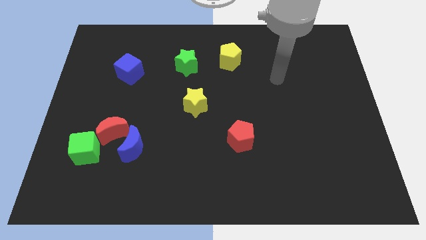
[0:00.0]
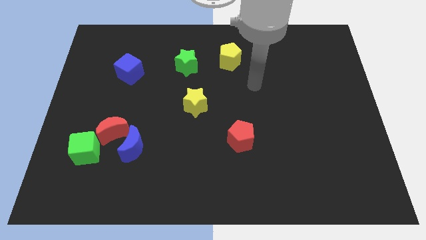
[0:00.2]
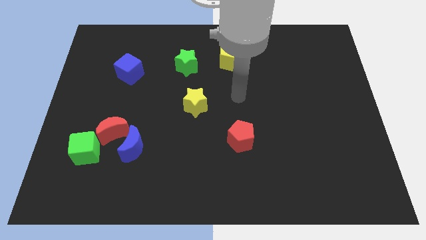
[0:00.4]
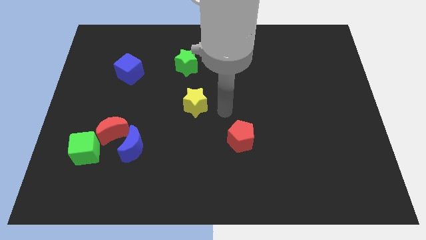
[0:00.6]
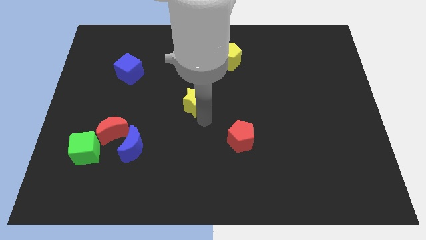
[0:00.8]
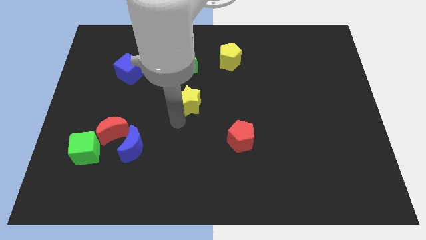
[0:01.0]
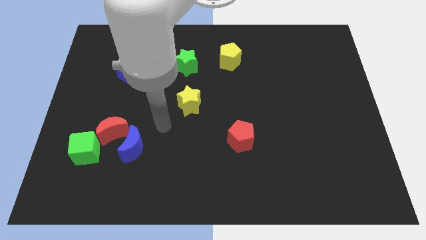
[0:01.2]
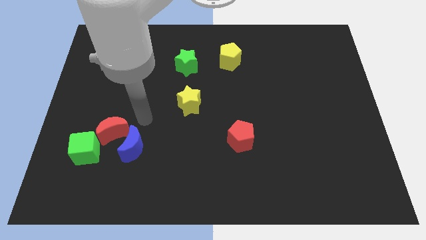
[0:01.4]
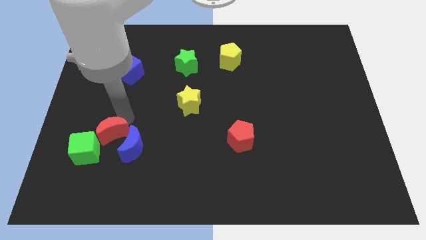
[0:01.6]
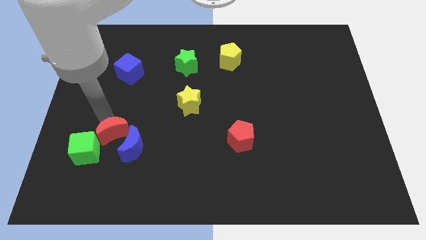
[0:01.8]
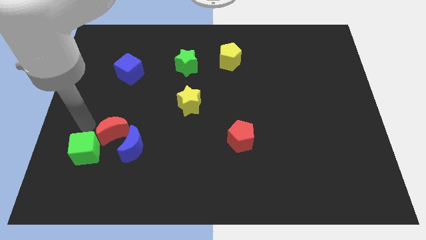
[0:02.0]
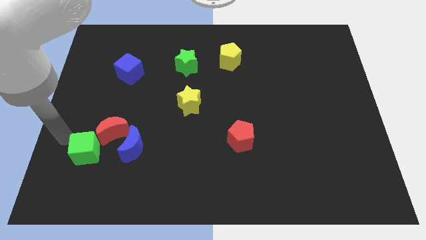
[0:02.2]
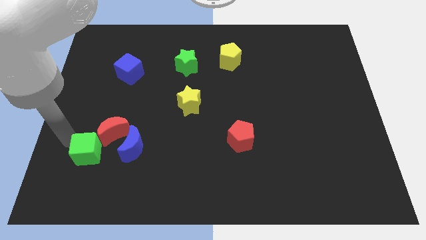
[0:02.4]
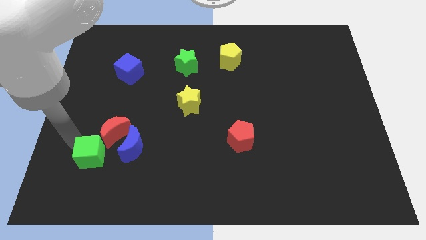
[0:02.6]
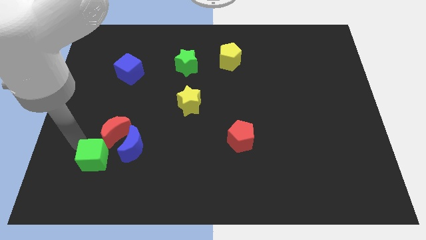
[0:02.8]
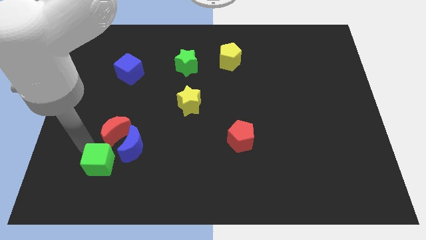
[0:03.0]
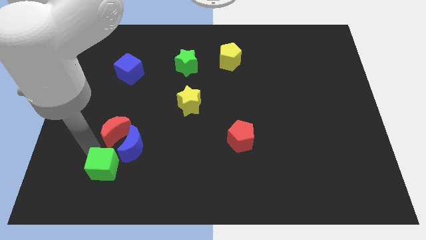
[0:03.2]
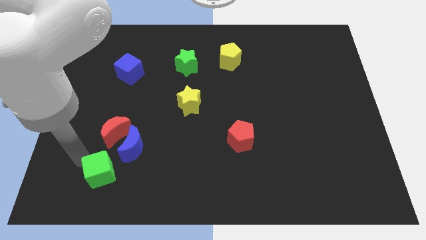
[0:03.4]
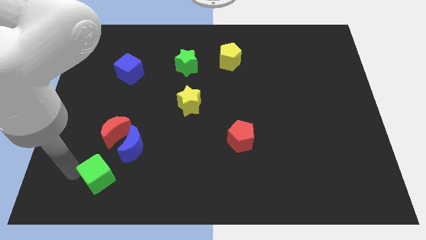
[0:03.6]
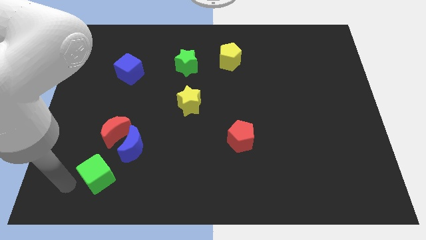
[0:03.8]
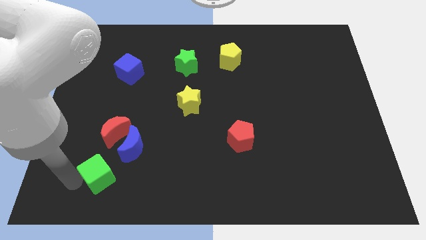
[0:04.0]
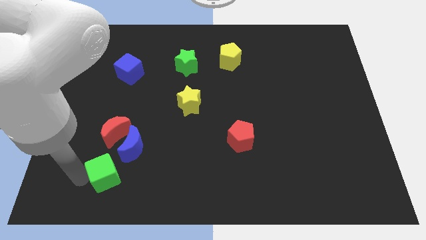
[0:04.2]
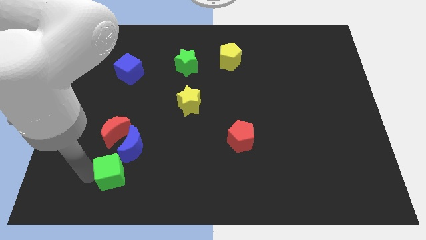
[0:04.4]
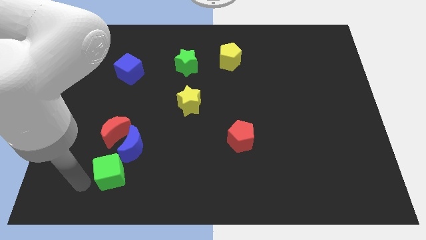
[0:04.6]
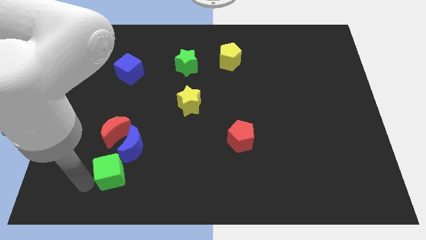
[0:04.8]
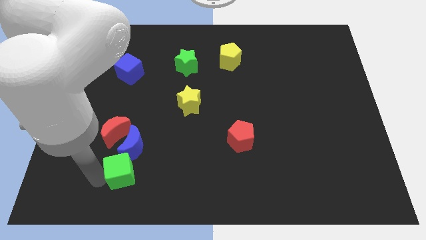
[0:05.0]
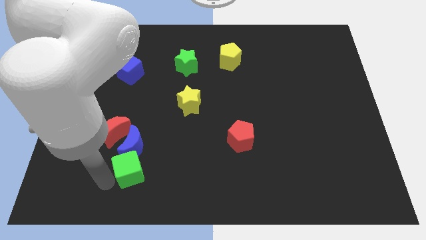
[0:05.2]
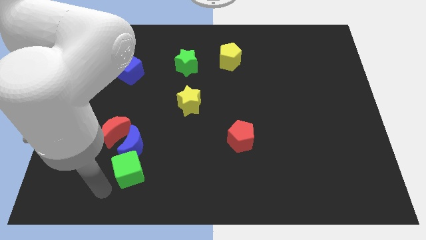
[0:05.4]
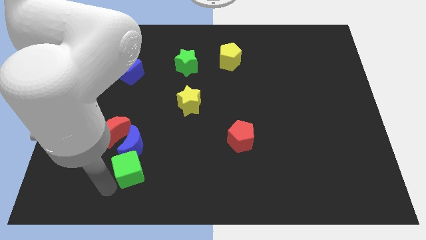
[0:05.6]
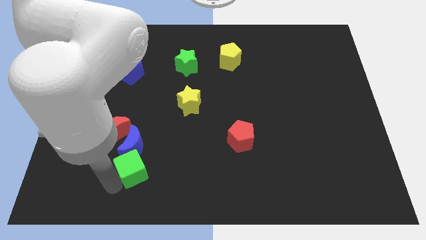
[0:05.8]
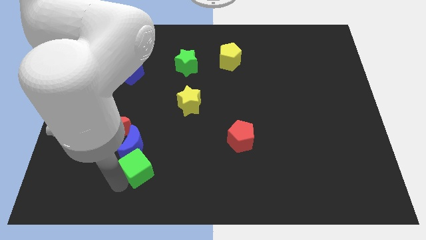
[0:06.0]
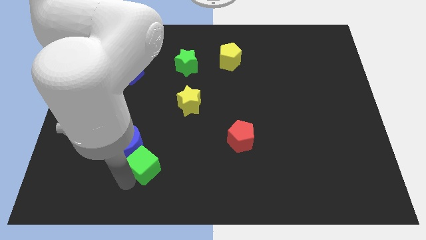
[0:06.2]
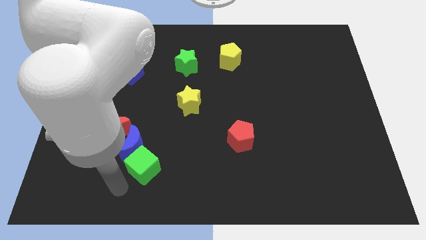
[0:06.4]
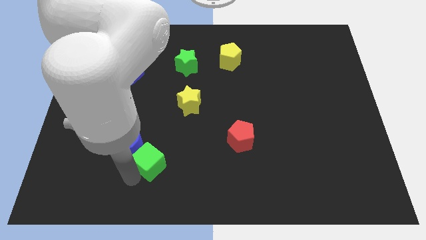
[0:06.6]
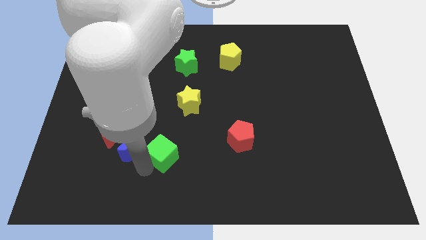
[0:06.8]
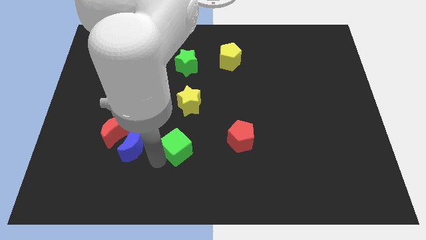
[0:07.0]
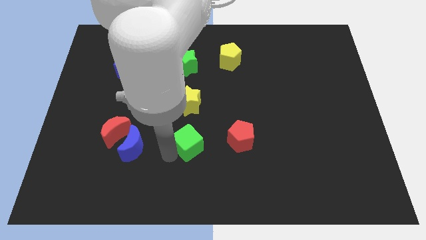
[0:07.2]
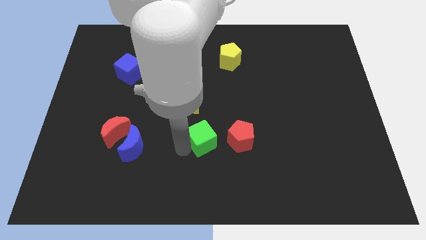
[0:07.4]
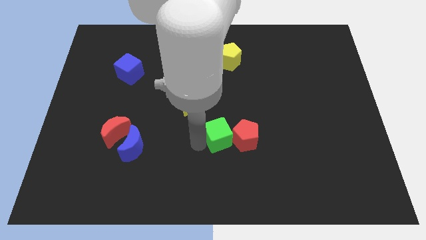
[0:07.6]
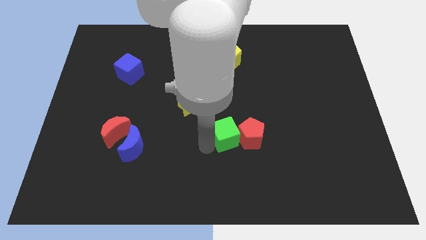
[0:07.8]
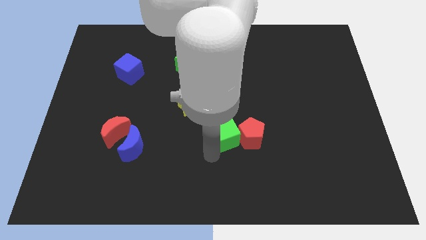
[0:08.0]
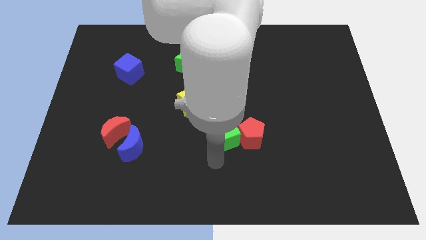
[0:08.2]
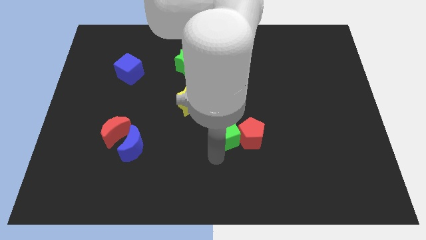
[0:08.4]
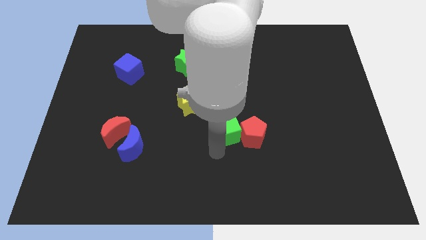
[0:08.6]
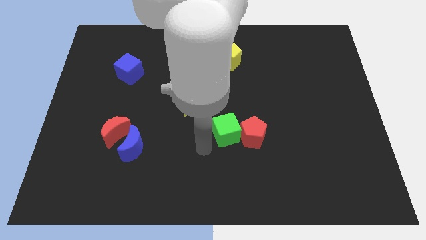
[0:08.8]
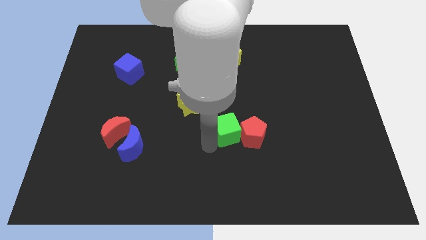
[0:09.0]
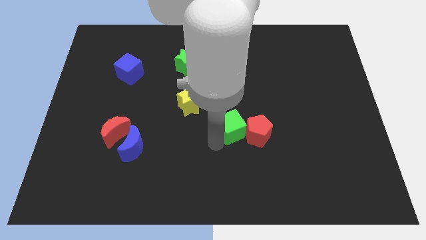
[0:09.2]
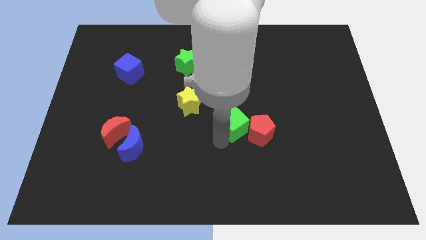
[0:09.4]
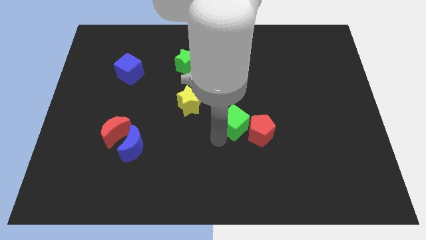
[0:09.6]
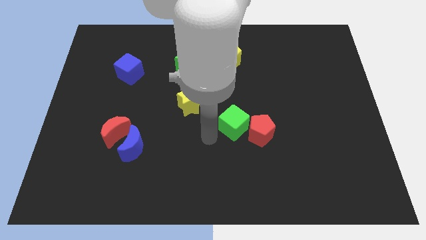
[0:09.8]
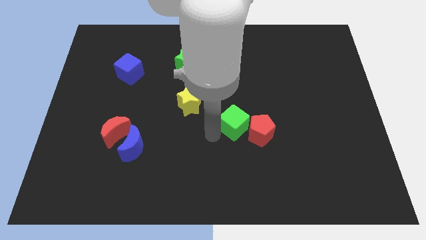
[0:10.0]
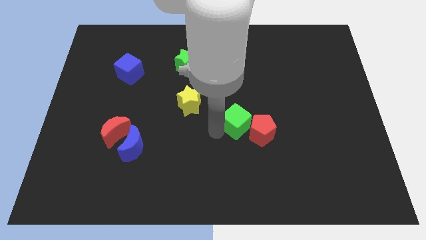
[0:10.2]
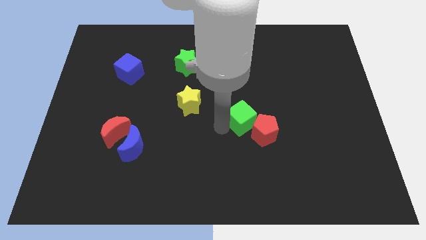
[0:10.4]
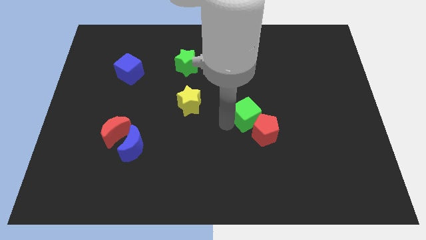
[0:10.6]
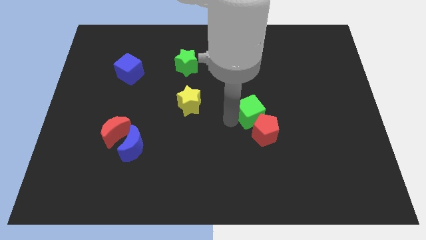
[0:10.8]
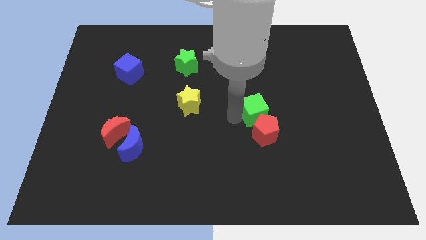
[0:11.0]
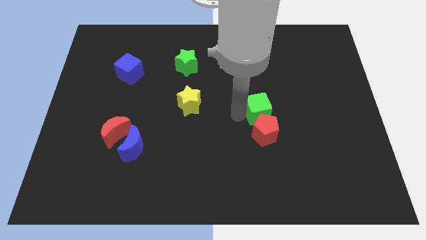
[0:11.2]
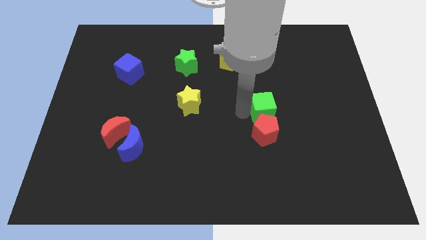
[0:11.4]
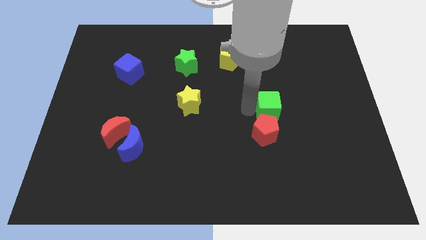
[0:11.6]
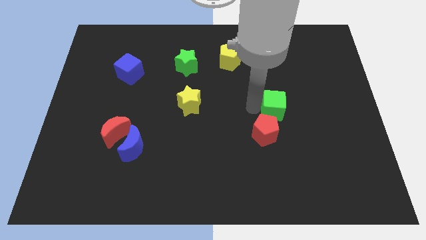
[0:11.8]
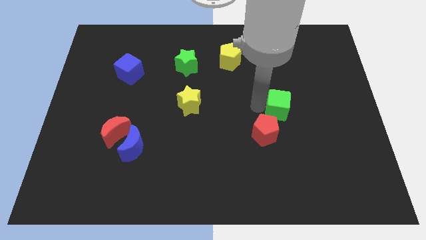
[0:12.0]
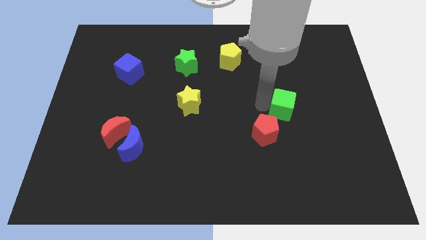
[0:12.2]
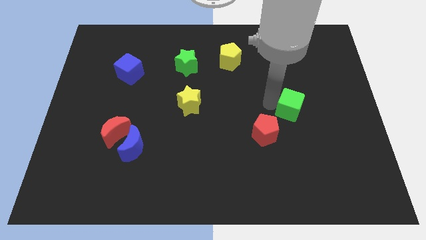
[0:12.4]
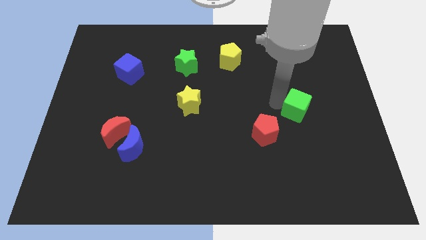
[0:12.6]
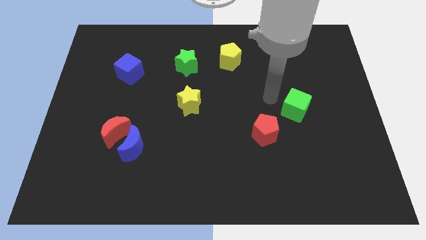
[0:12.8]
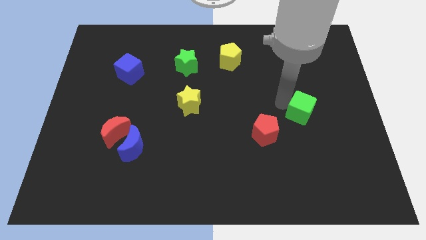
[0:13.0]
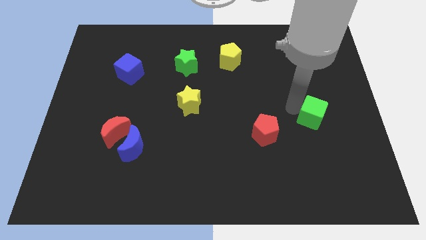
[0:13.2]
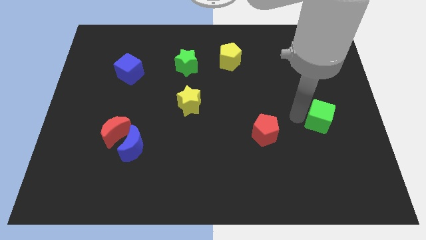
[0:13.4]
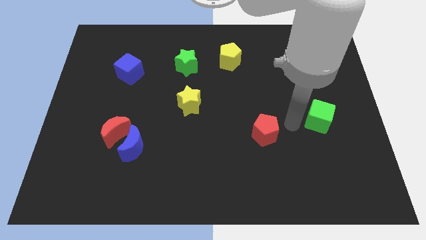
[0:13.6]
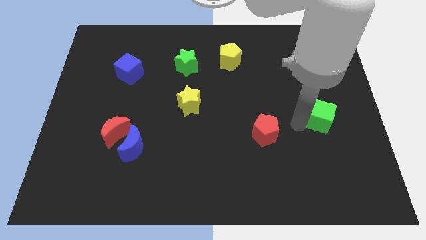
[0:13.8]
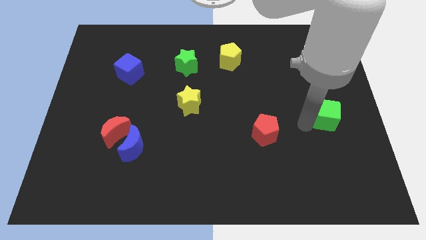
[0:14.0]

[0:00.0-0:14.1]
move the green cube to the center right
